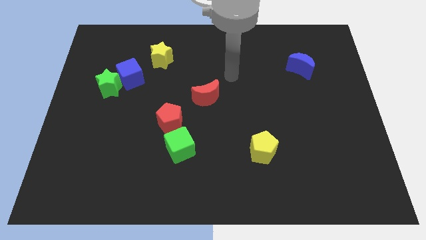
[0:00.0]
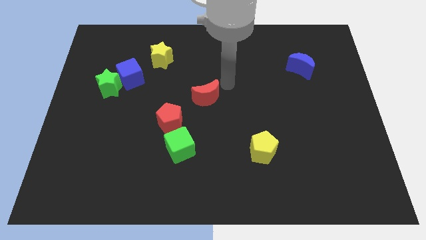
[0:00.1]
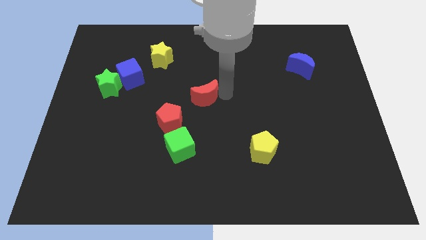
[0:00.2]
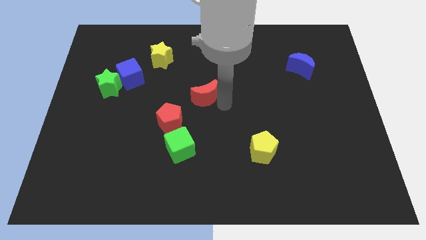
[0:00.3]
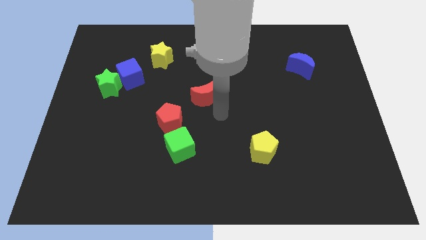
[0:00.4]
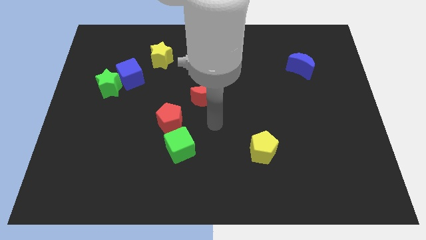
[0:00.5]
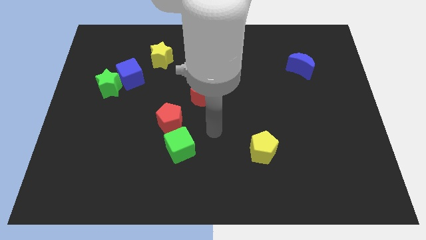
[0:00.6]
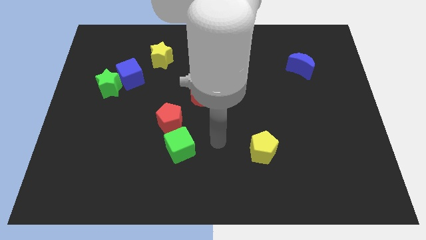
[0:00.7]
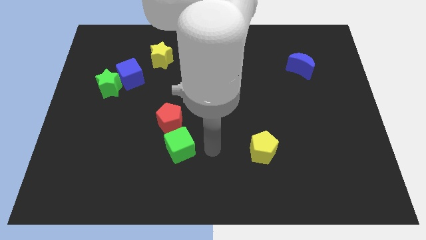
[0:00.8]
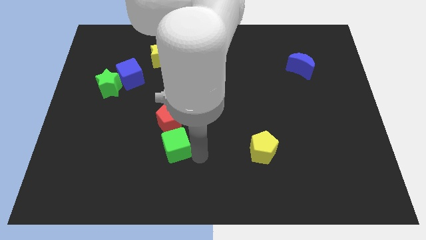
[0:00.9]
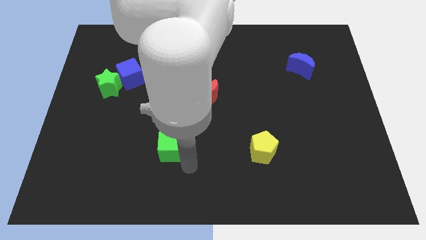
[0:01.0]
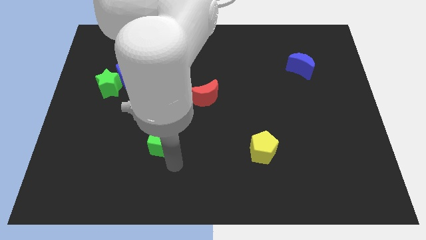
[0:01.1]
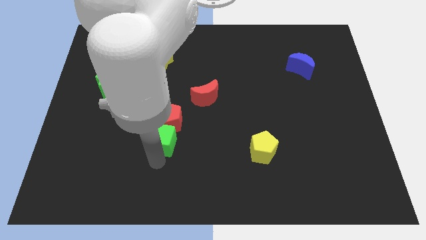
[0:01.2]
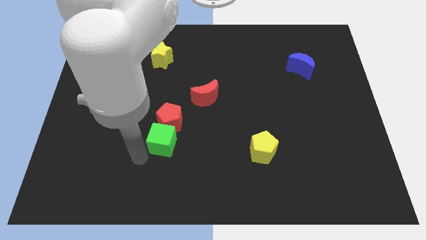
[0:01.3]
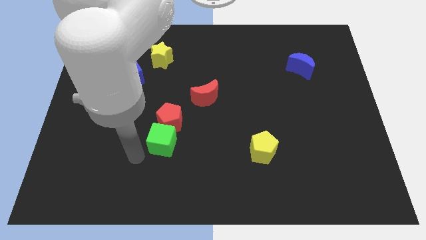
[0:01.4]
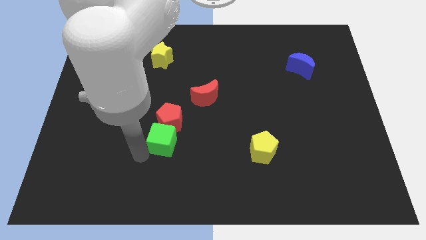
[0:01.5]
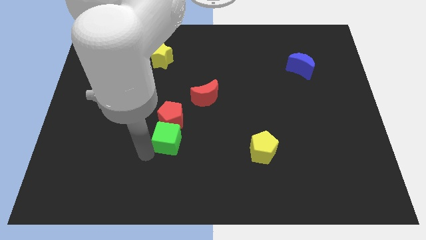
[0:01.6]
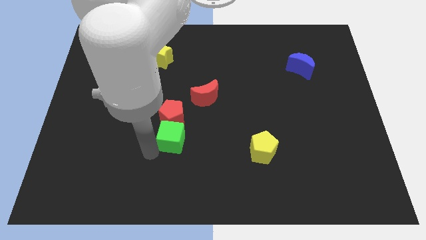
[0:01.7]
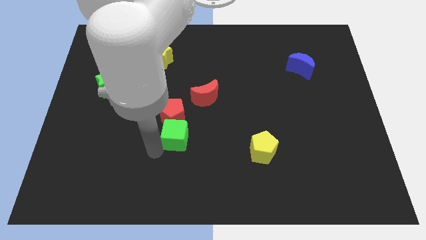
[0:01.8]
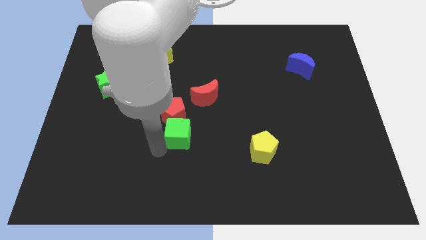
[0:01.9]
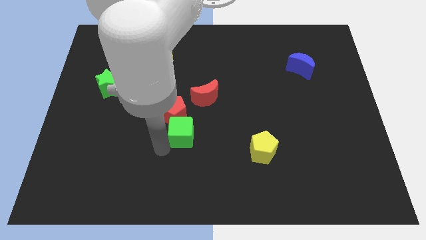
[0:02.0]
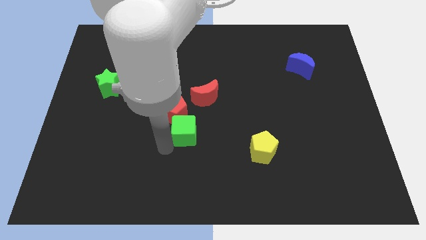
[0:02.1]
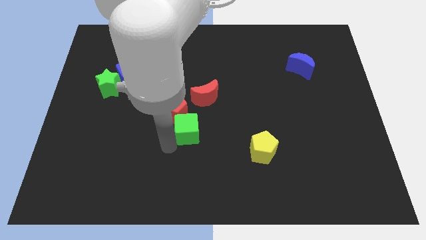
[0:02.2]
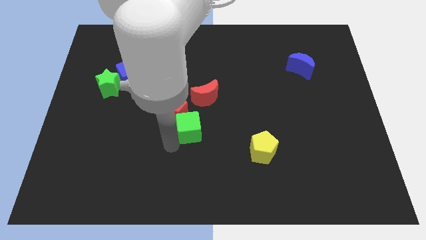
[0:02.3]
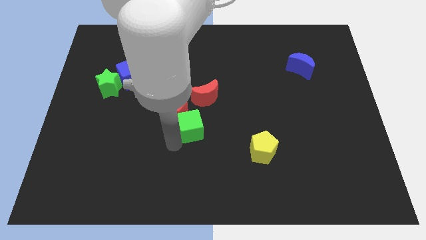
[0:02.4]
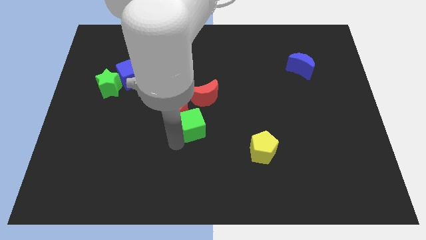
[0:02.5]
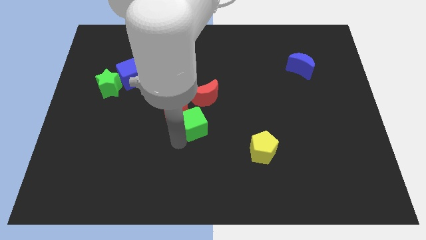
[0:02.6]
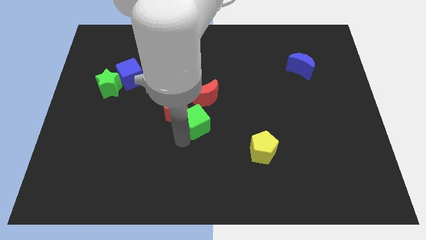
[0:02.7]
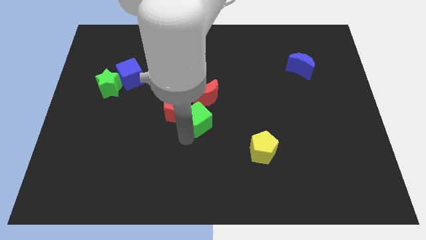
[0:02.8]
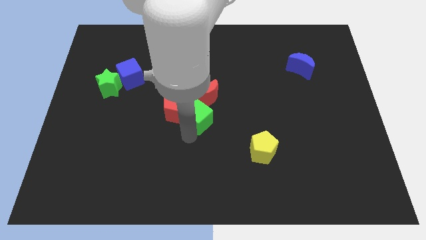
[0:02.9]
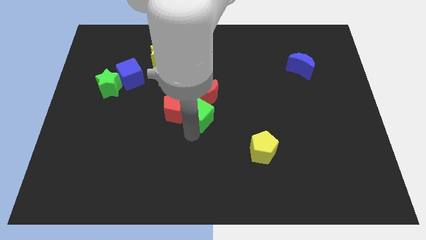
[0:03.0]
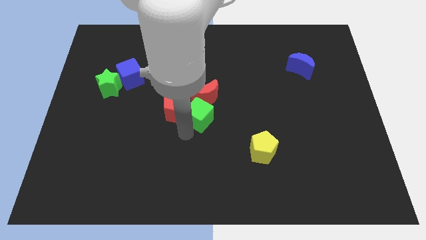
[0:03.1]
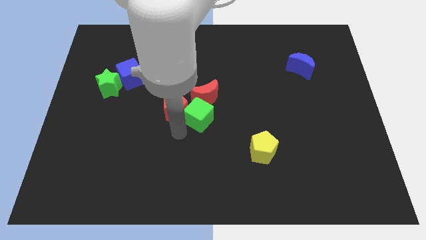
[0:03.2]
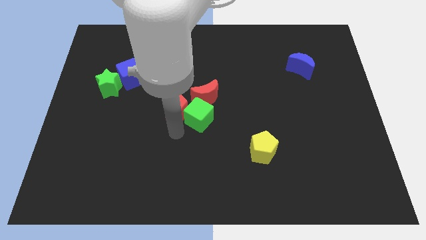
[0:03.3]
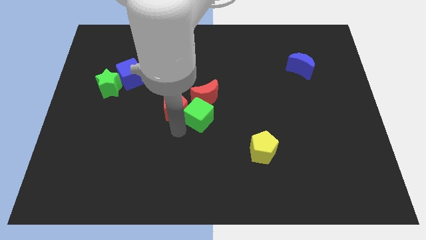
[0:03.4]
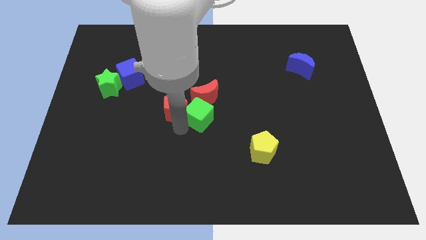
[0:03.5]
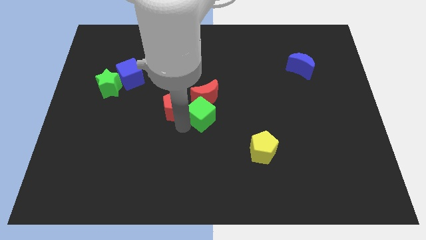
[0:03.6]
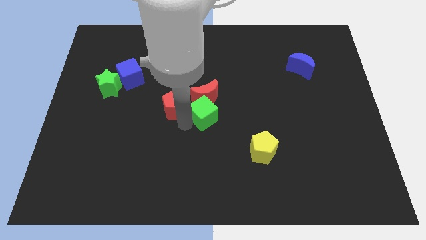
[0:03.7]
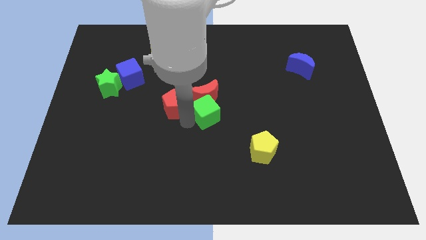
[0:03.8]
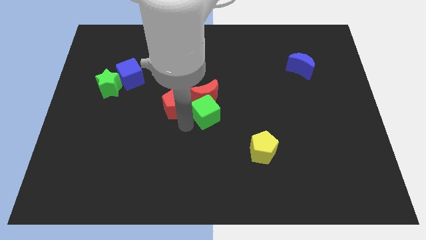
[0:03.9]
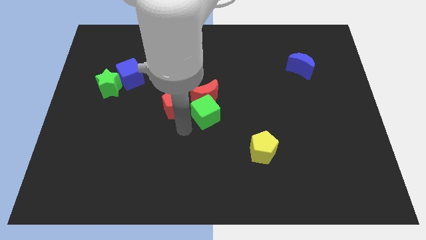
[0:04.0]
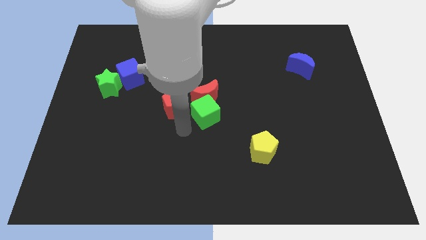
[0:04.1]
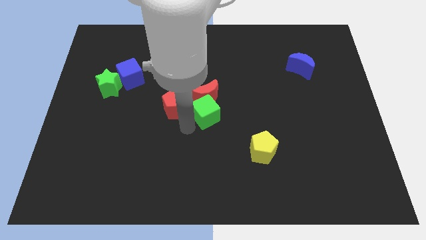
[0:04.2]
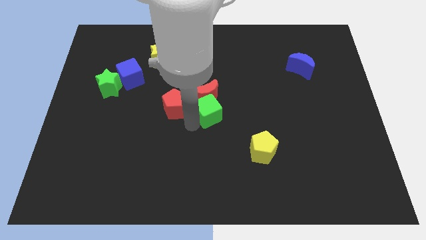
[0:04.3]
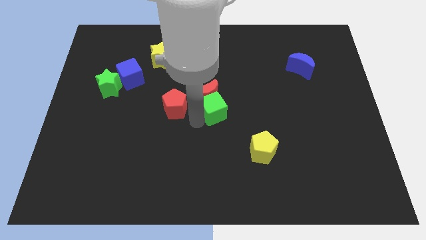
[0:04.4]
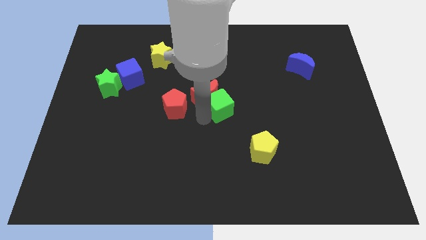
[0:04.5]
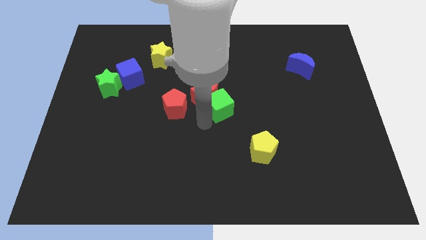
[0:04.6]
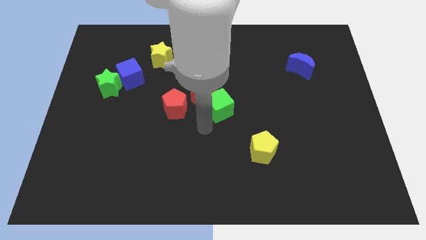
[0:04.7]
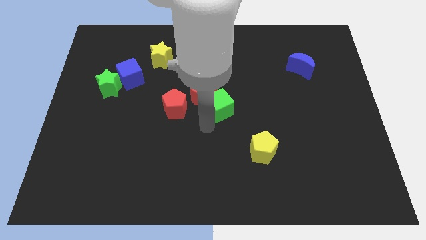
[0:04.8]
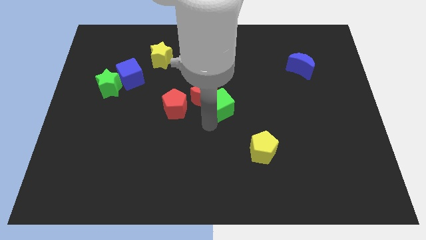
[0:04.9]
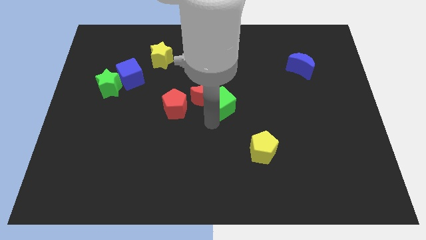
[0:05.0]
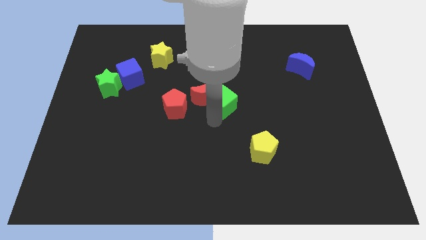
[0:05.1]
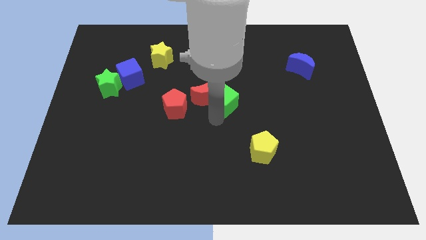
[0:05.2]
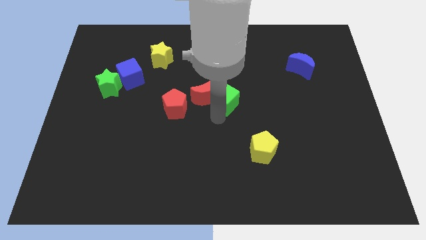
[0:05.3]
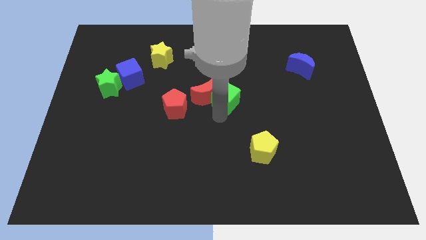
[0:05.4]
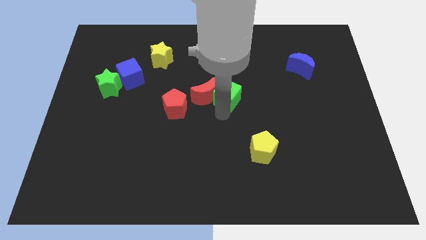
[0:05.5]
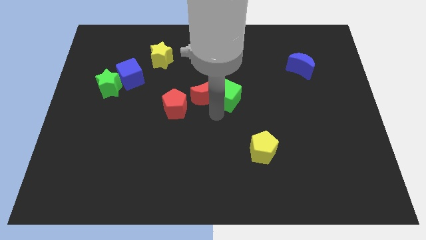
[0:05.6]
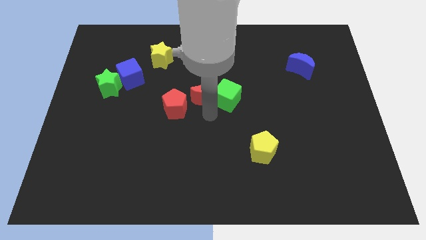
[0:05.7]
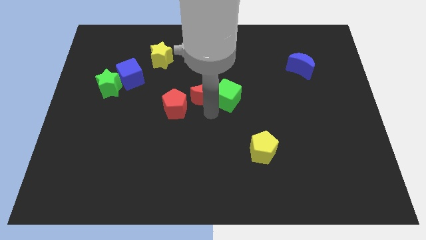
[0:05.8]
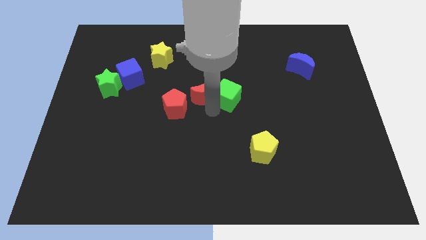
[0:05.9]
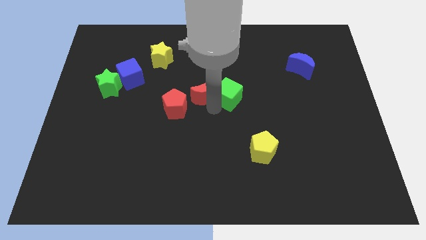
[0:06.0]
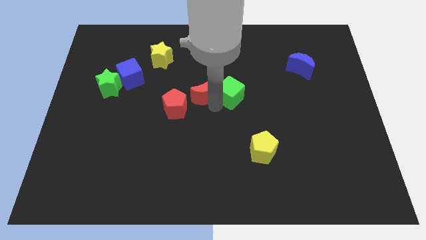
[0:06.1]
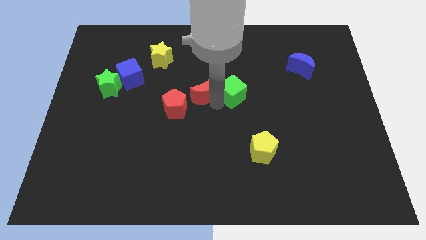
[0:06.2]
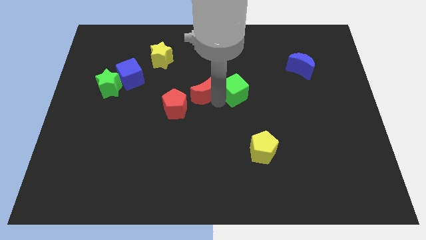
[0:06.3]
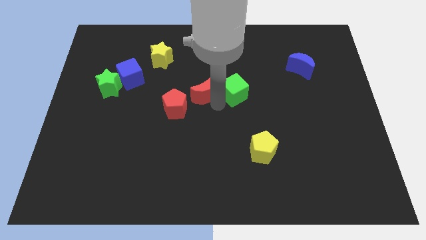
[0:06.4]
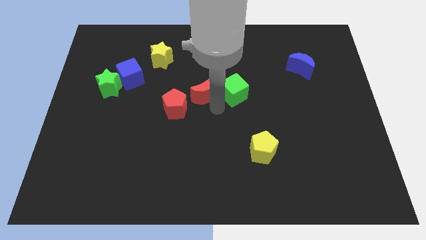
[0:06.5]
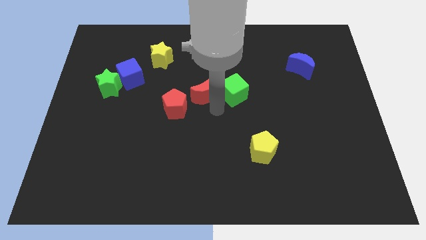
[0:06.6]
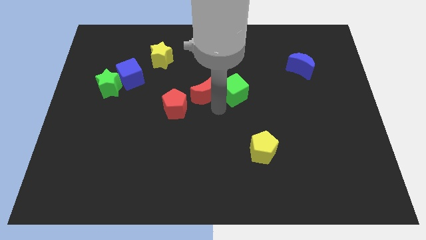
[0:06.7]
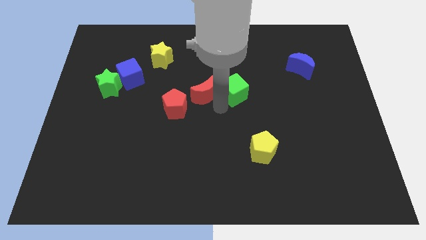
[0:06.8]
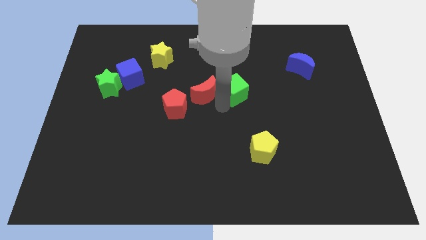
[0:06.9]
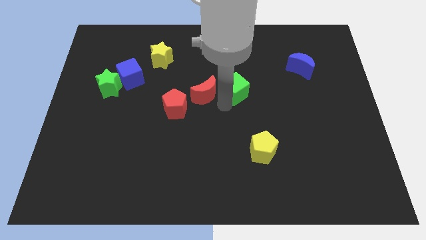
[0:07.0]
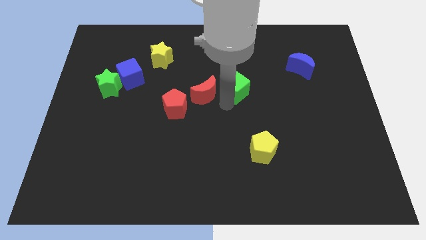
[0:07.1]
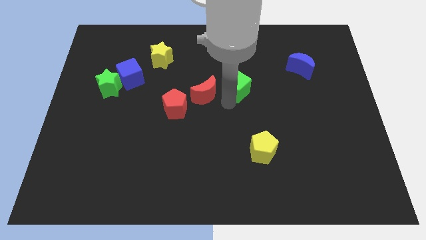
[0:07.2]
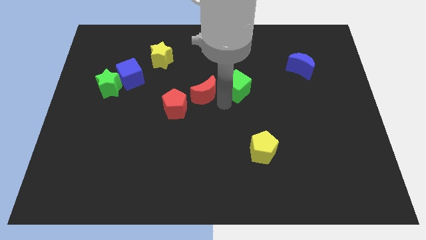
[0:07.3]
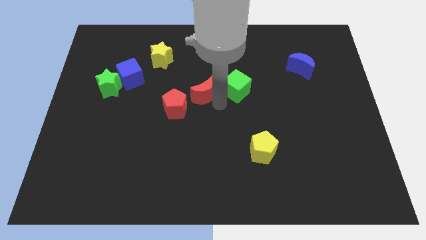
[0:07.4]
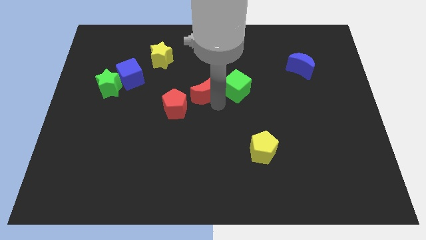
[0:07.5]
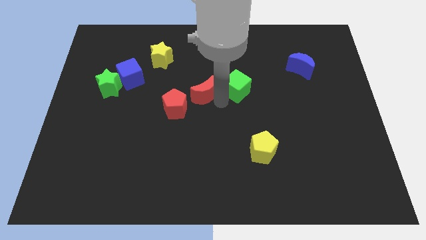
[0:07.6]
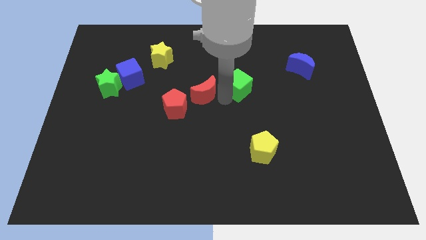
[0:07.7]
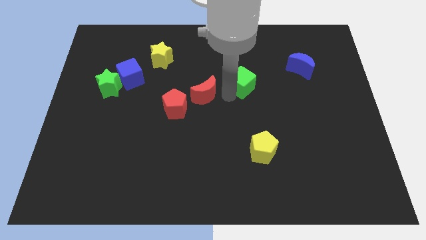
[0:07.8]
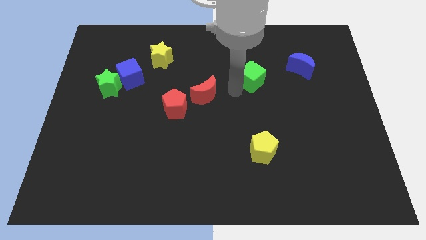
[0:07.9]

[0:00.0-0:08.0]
put the green cube to the left of the blue moon
